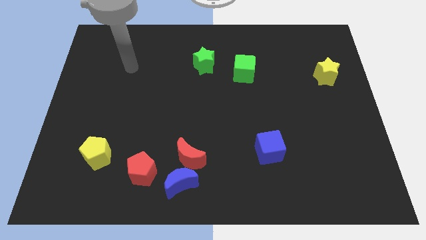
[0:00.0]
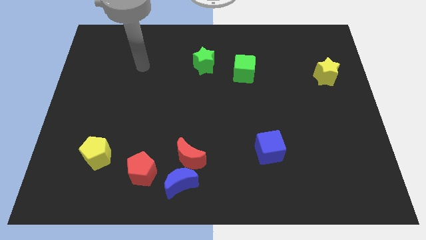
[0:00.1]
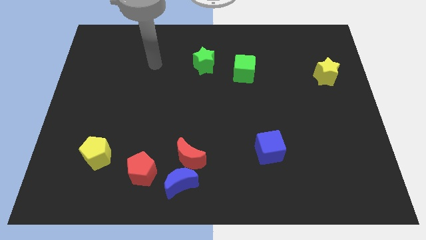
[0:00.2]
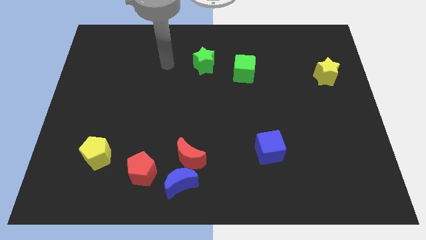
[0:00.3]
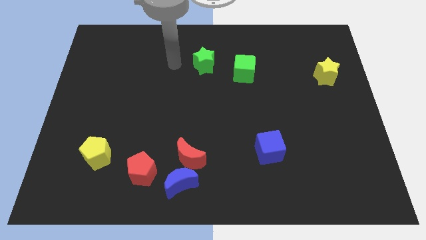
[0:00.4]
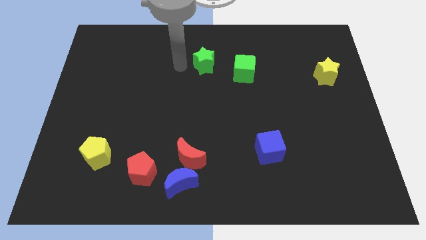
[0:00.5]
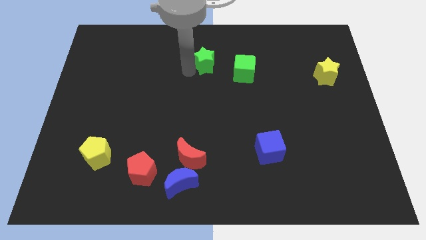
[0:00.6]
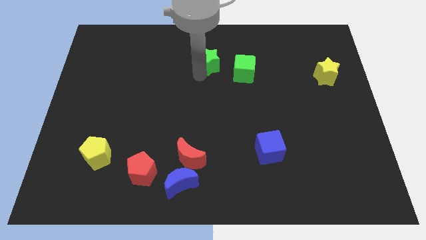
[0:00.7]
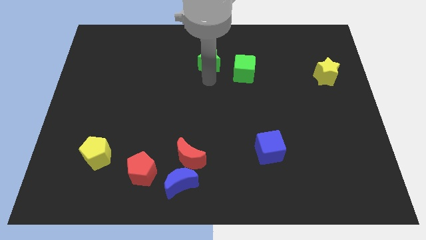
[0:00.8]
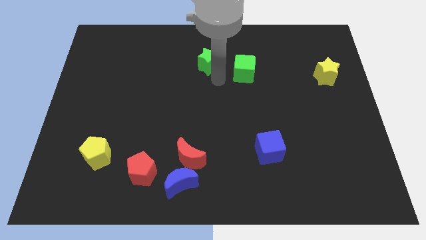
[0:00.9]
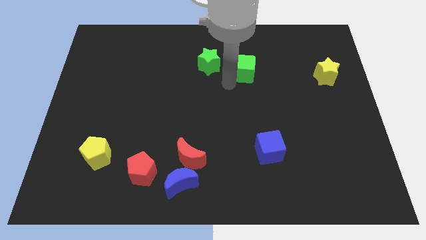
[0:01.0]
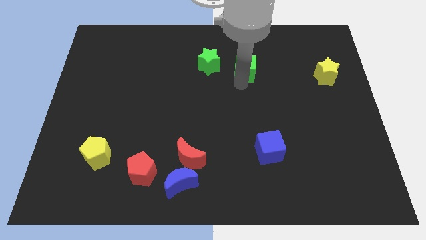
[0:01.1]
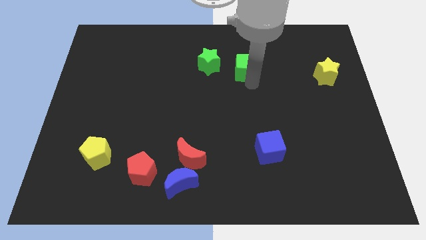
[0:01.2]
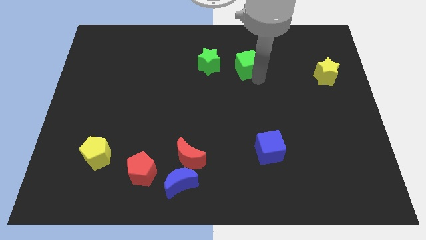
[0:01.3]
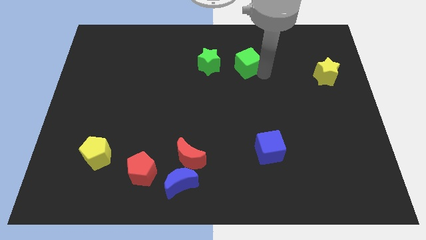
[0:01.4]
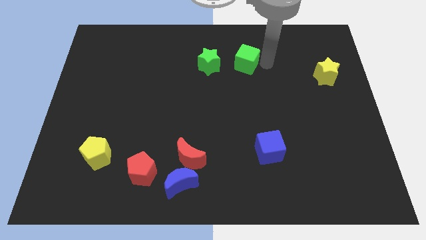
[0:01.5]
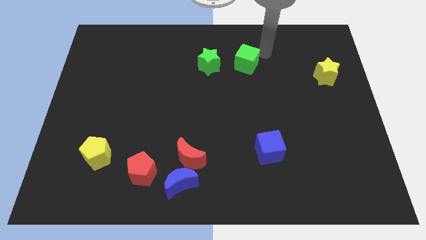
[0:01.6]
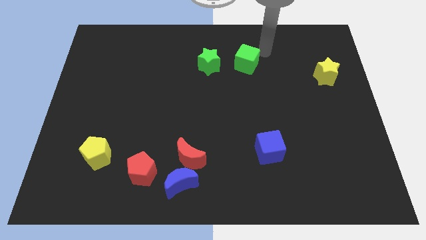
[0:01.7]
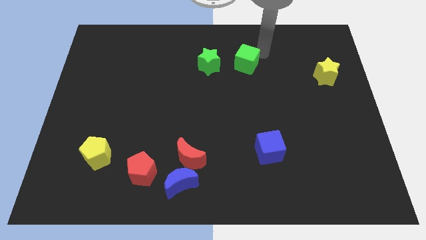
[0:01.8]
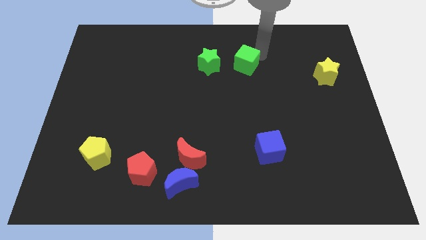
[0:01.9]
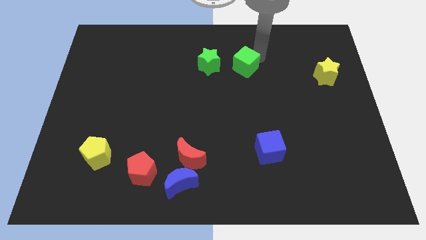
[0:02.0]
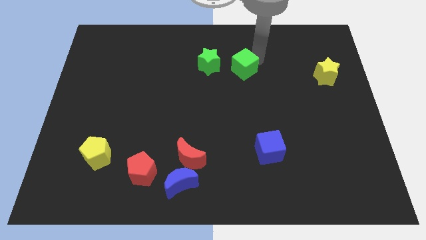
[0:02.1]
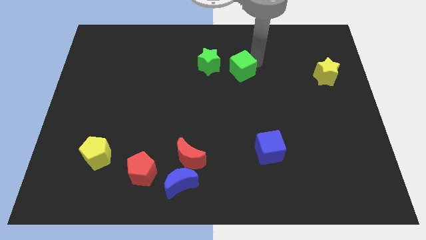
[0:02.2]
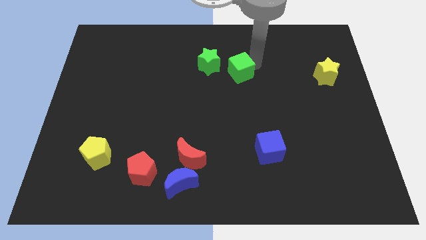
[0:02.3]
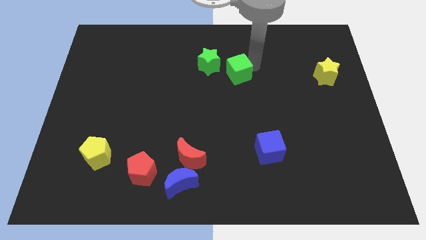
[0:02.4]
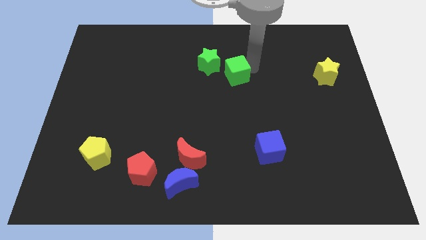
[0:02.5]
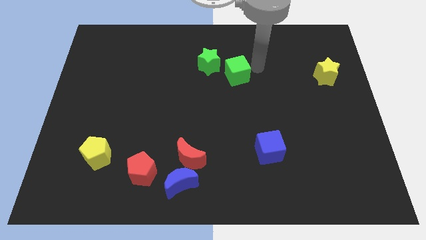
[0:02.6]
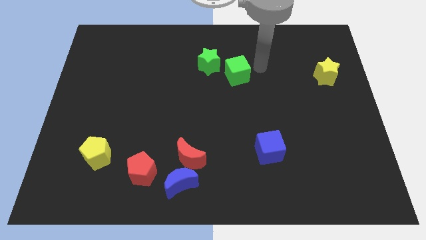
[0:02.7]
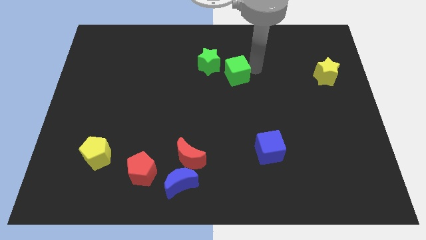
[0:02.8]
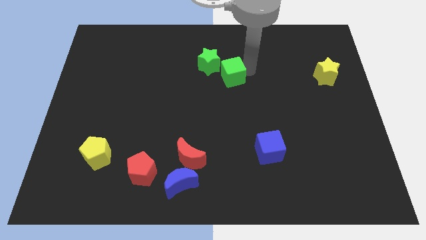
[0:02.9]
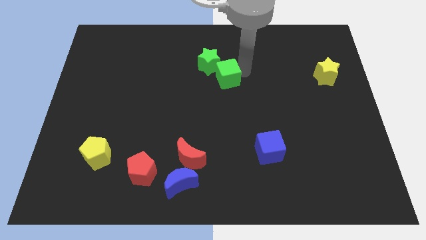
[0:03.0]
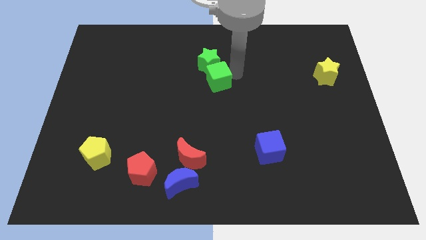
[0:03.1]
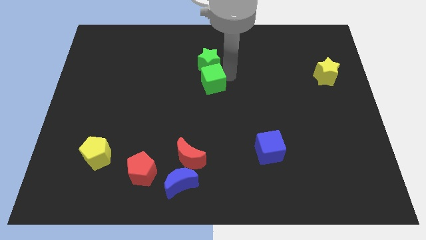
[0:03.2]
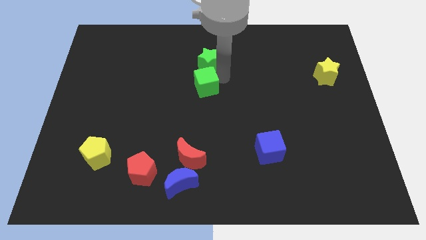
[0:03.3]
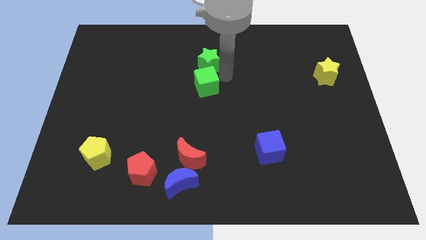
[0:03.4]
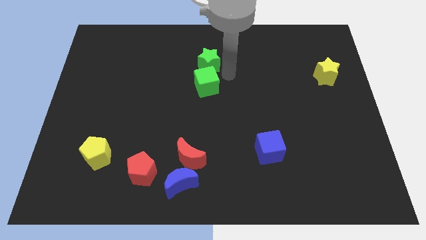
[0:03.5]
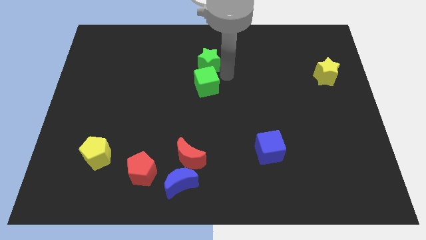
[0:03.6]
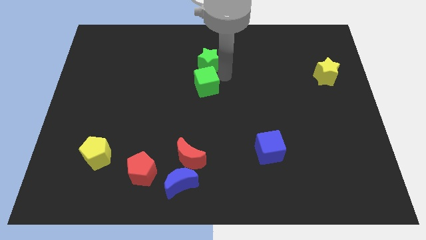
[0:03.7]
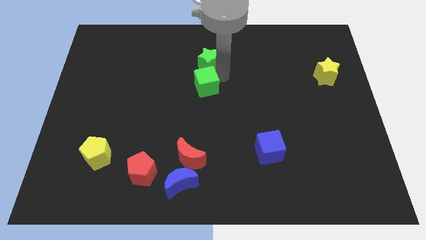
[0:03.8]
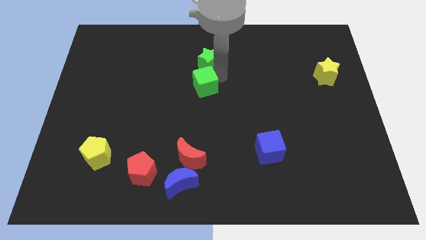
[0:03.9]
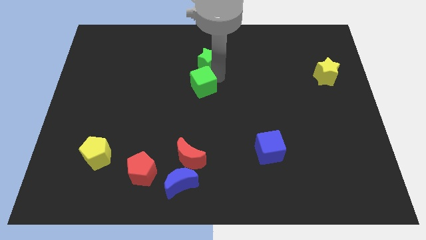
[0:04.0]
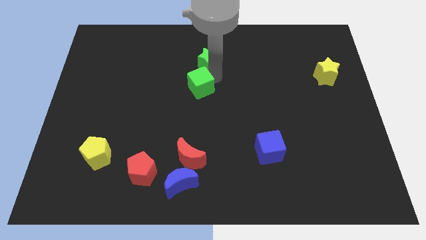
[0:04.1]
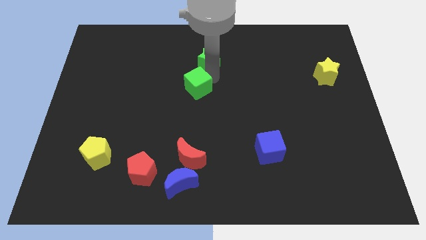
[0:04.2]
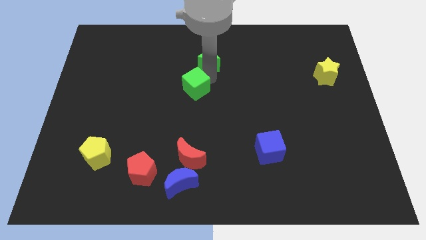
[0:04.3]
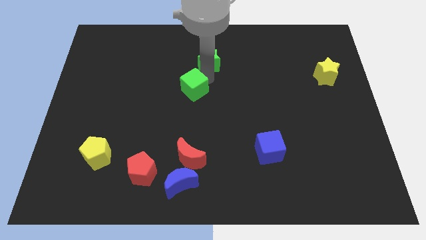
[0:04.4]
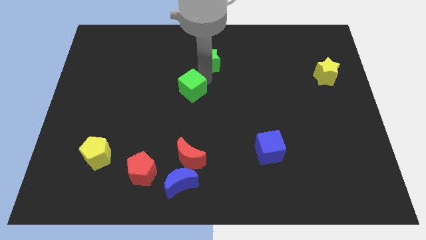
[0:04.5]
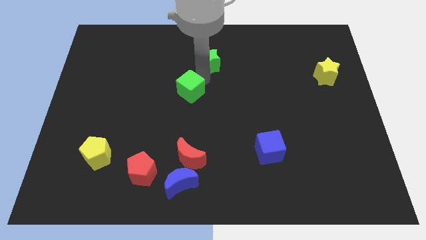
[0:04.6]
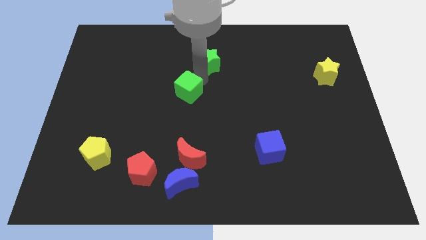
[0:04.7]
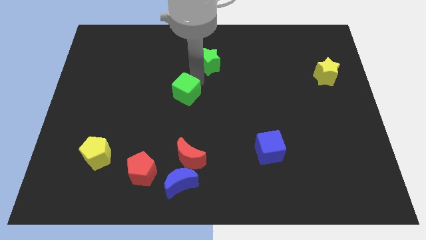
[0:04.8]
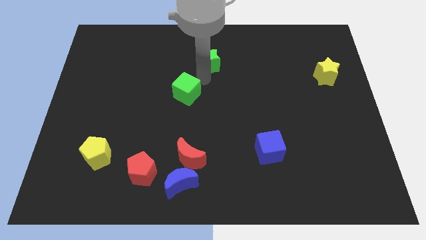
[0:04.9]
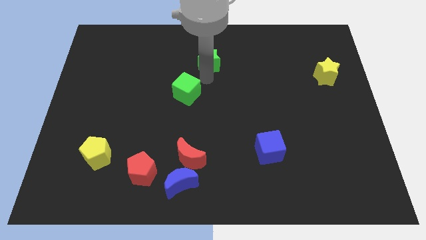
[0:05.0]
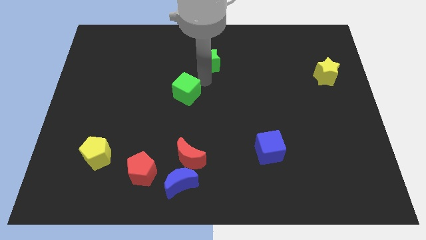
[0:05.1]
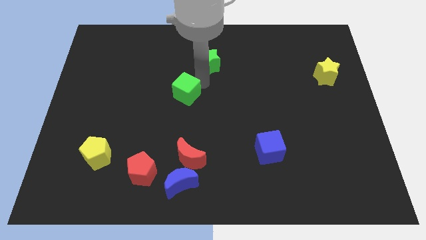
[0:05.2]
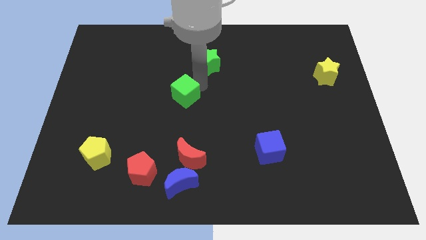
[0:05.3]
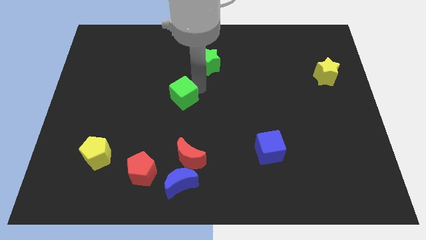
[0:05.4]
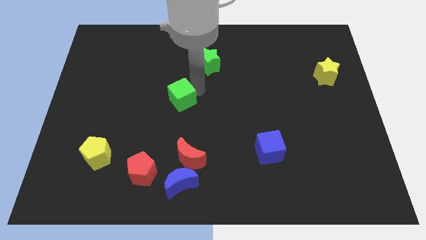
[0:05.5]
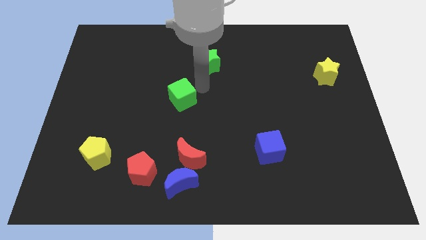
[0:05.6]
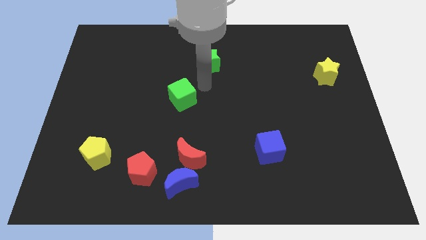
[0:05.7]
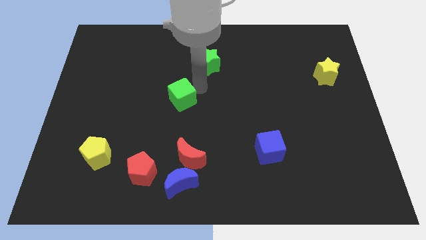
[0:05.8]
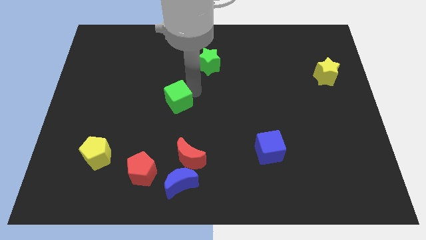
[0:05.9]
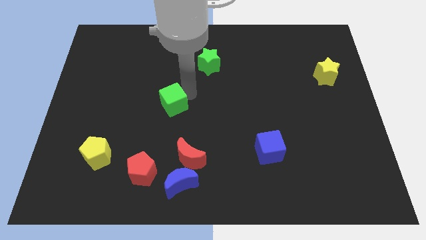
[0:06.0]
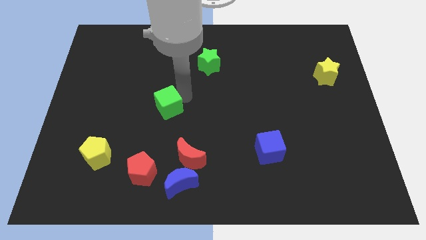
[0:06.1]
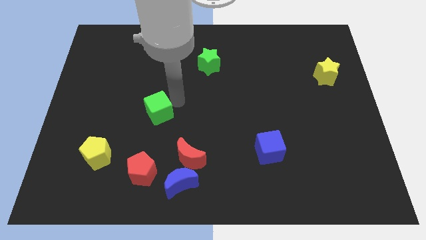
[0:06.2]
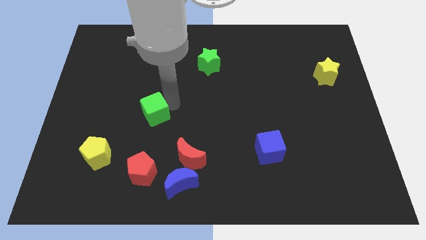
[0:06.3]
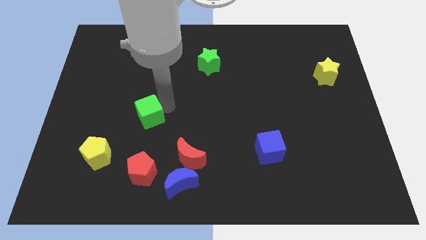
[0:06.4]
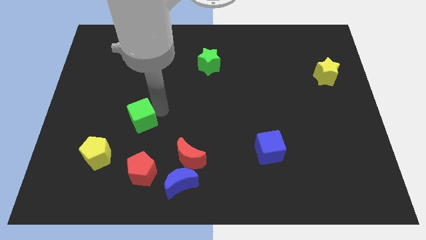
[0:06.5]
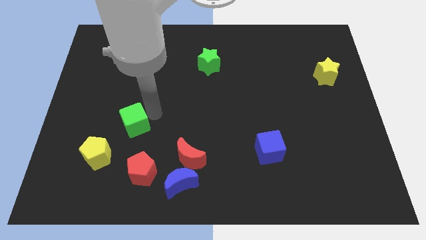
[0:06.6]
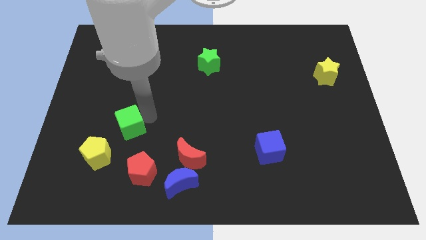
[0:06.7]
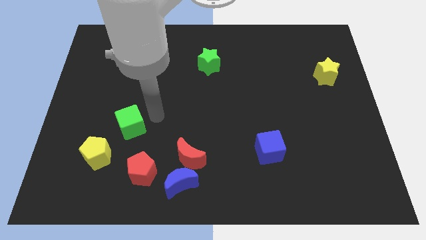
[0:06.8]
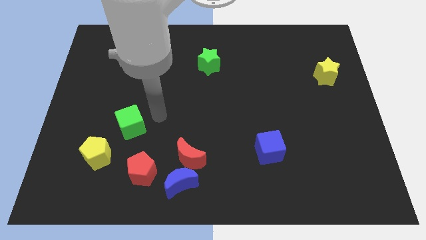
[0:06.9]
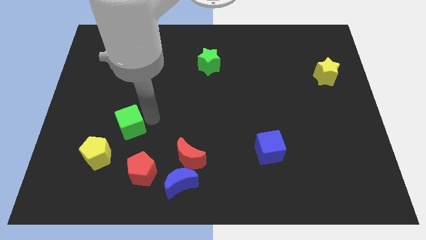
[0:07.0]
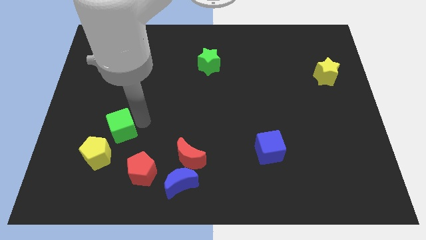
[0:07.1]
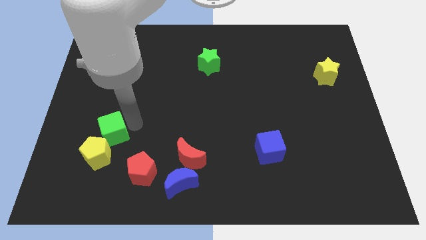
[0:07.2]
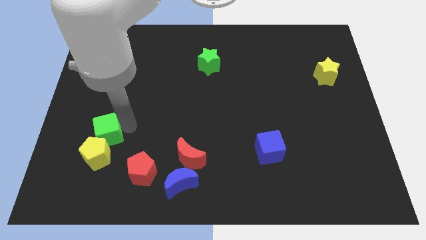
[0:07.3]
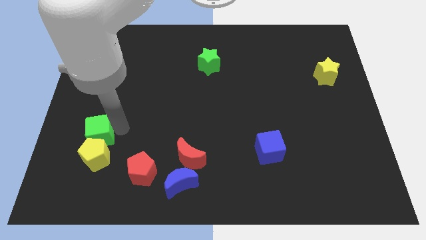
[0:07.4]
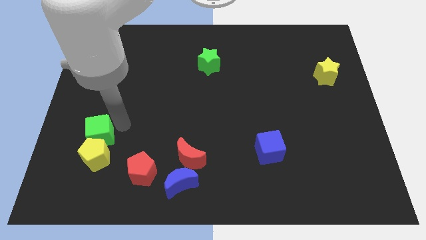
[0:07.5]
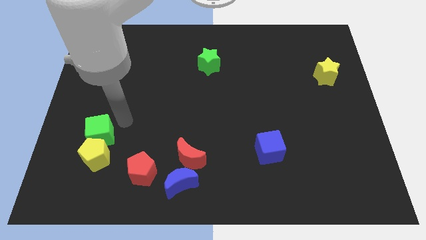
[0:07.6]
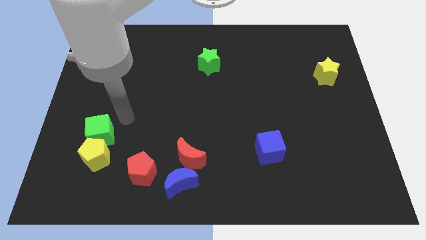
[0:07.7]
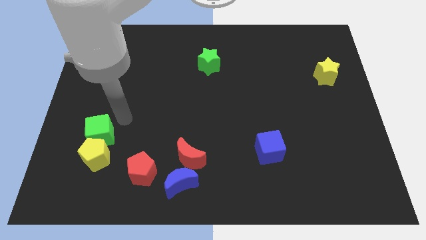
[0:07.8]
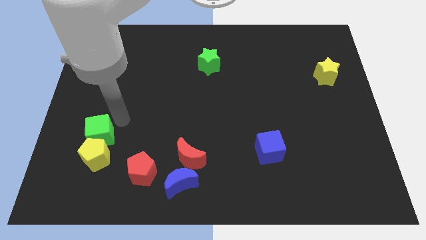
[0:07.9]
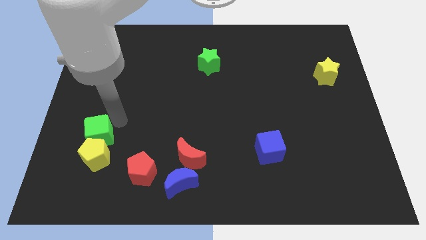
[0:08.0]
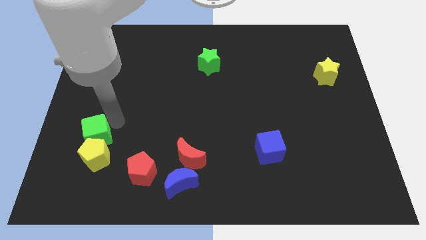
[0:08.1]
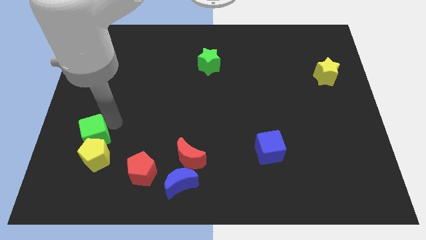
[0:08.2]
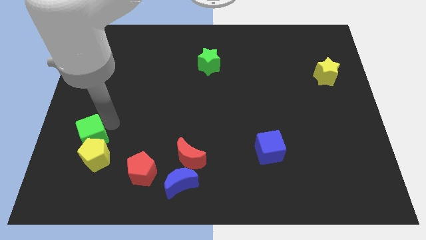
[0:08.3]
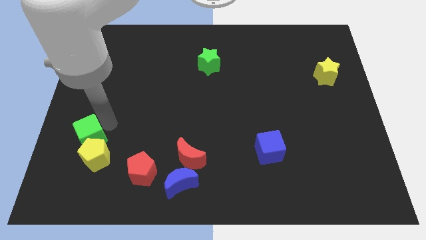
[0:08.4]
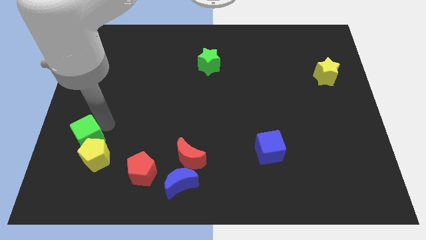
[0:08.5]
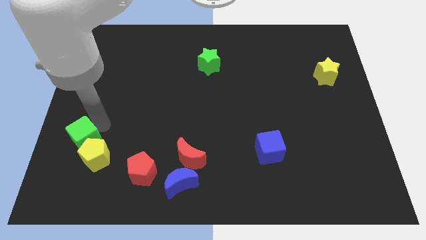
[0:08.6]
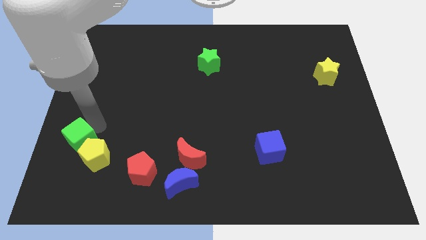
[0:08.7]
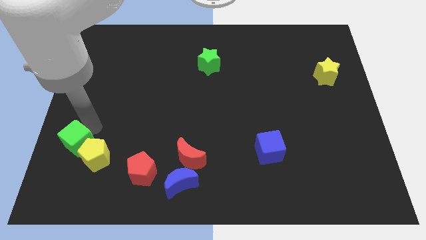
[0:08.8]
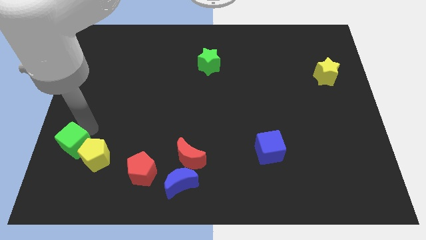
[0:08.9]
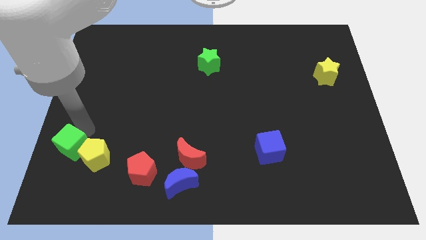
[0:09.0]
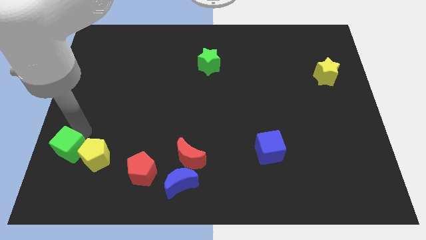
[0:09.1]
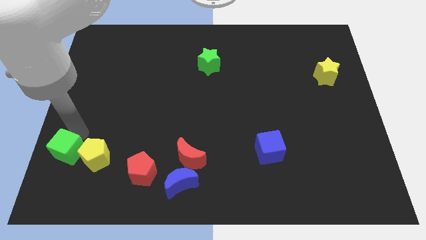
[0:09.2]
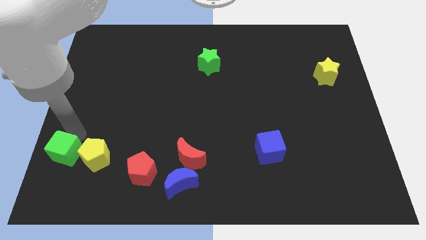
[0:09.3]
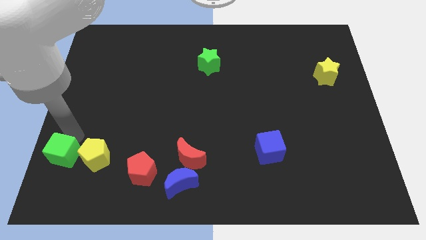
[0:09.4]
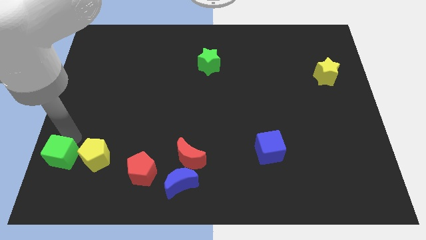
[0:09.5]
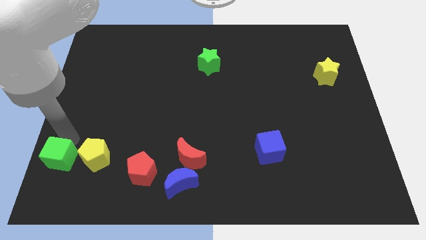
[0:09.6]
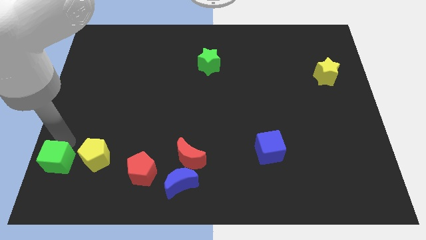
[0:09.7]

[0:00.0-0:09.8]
slide the green cube to the bottom left corner
